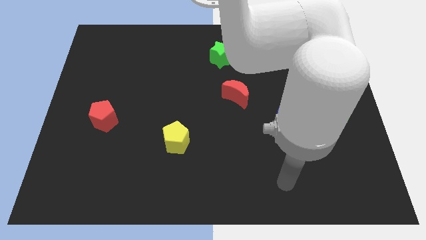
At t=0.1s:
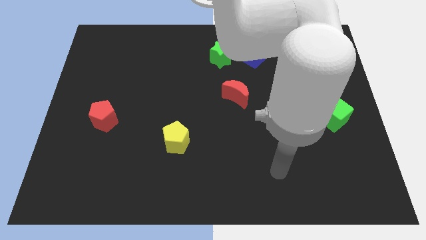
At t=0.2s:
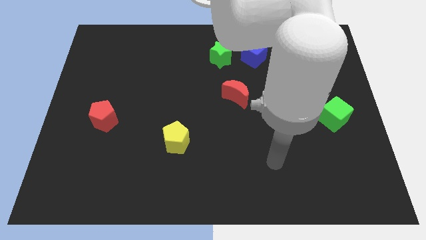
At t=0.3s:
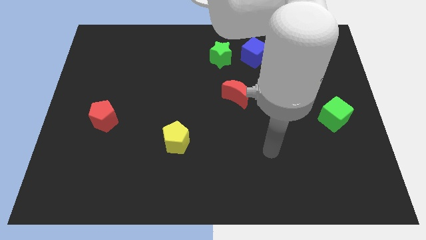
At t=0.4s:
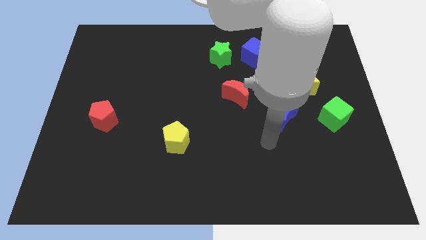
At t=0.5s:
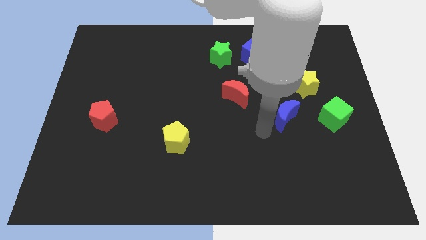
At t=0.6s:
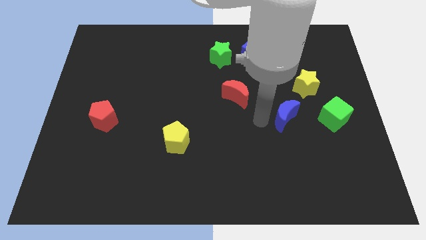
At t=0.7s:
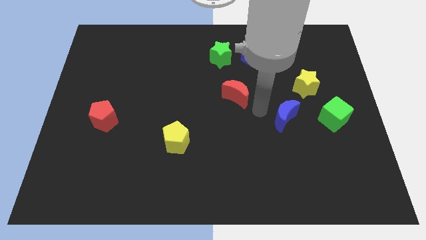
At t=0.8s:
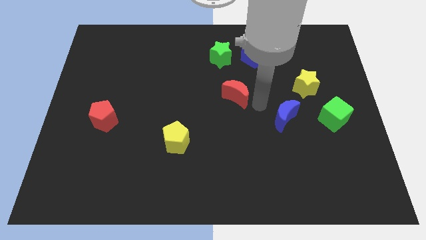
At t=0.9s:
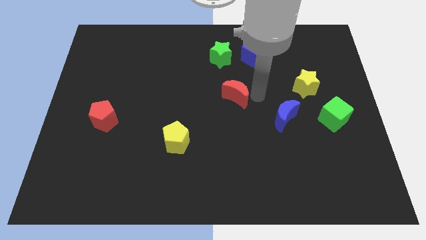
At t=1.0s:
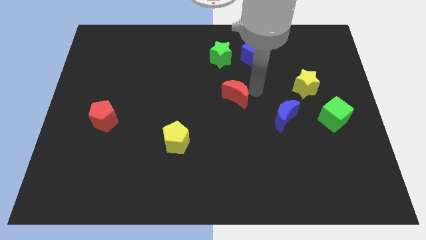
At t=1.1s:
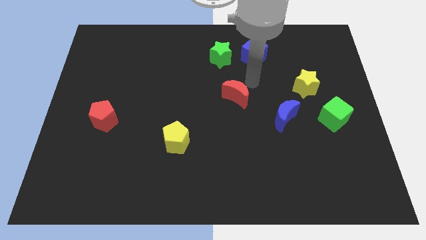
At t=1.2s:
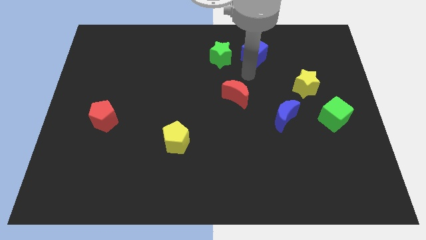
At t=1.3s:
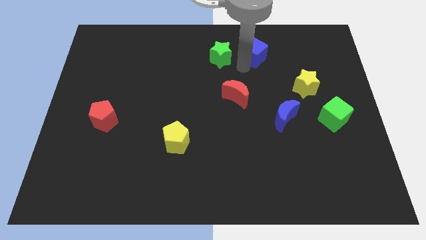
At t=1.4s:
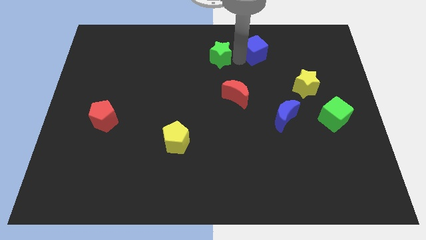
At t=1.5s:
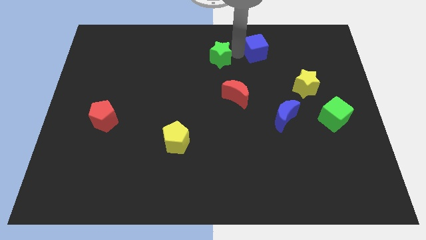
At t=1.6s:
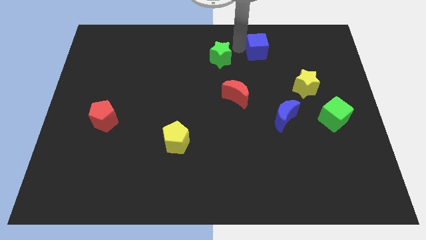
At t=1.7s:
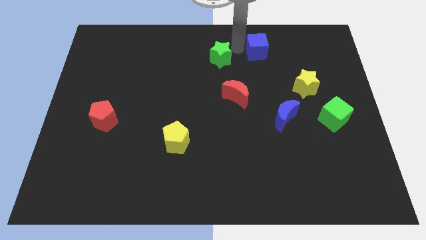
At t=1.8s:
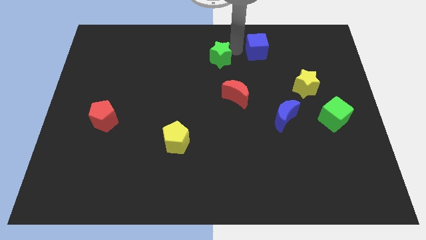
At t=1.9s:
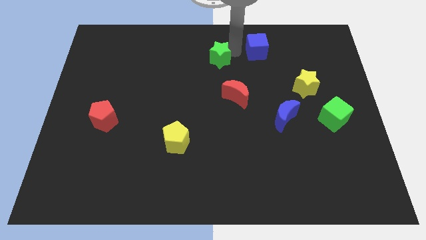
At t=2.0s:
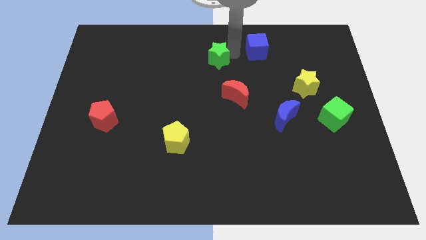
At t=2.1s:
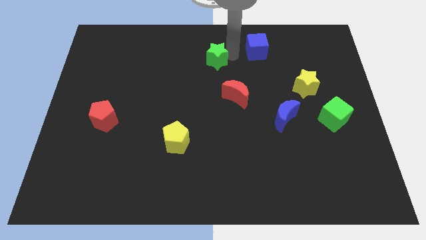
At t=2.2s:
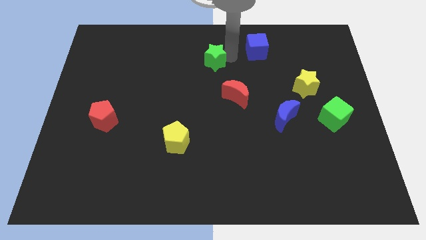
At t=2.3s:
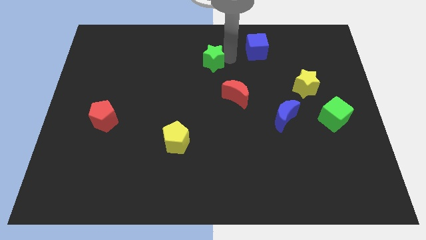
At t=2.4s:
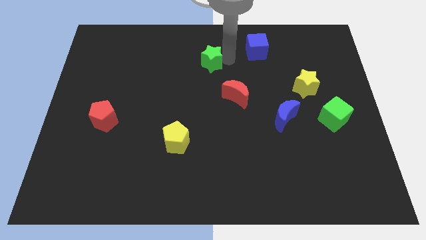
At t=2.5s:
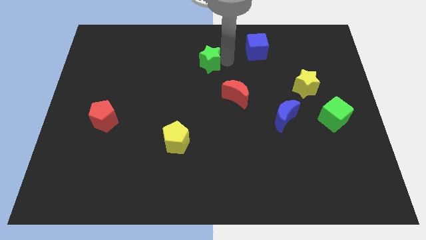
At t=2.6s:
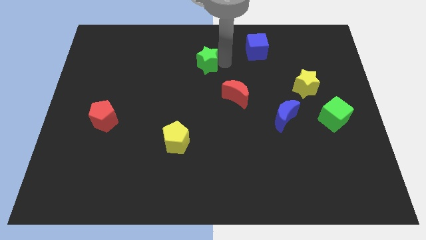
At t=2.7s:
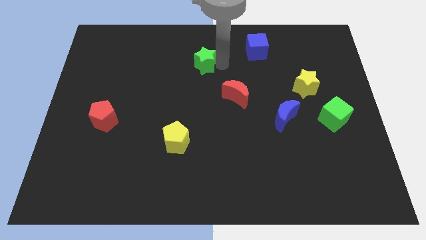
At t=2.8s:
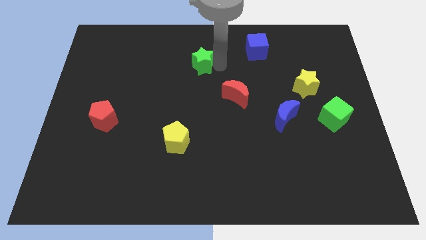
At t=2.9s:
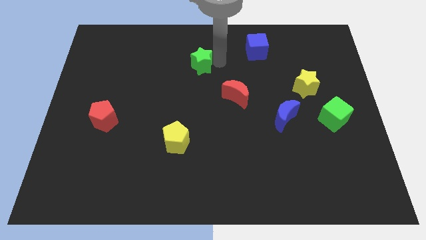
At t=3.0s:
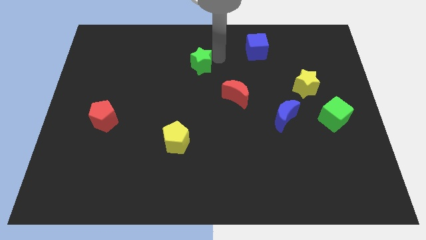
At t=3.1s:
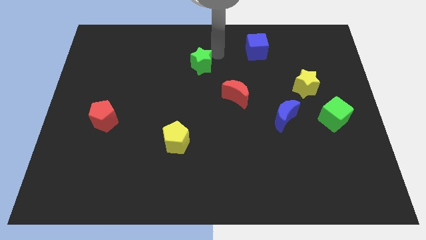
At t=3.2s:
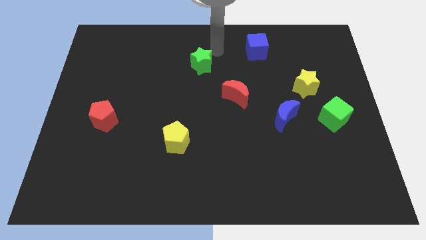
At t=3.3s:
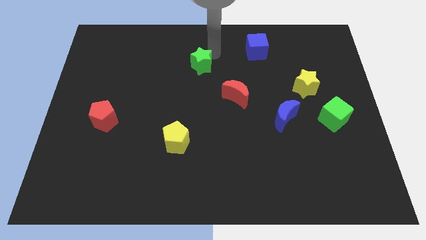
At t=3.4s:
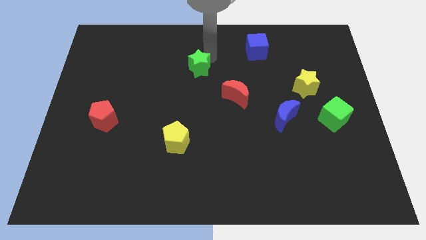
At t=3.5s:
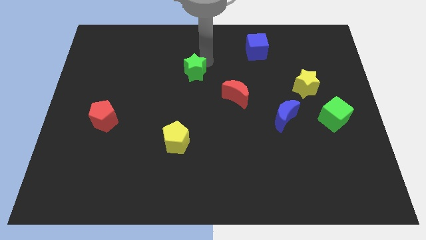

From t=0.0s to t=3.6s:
move the green star a bit downwards and left

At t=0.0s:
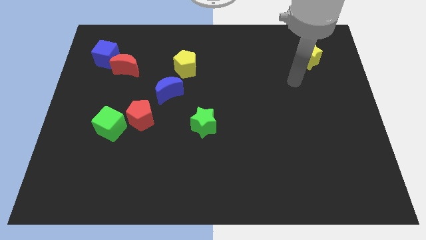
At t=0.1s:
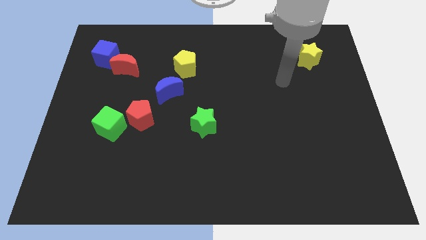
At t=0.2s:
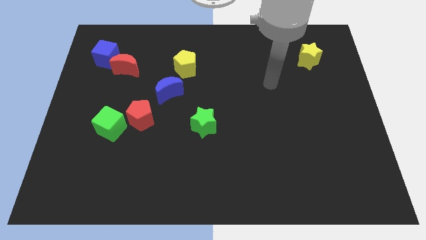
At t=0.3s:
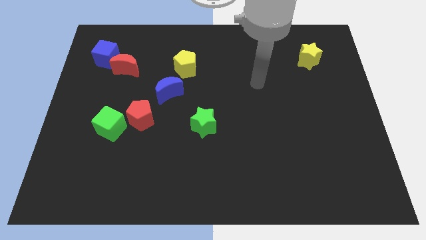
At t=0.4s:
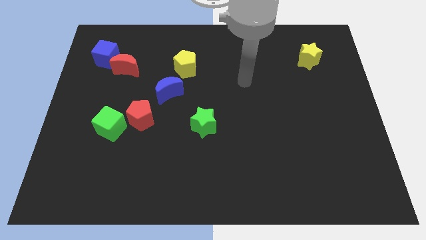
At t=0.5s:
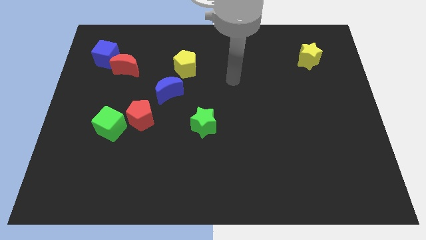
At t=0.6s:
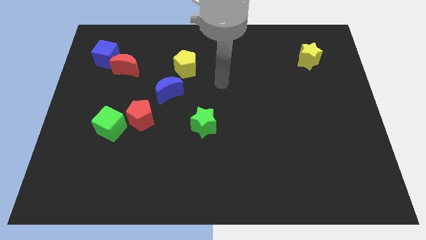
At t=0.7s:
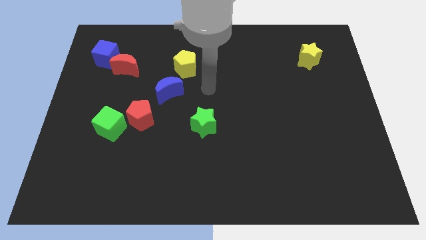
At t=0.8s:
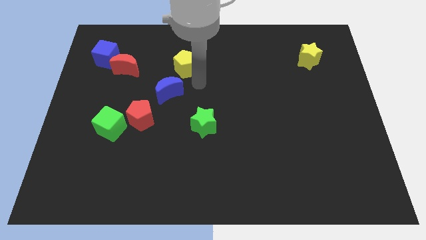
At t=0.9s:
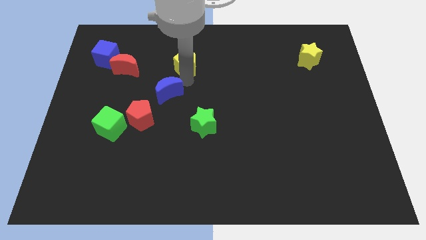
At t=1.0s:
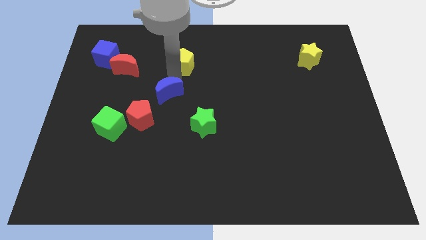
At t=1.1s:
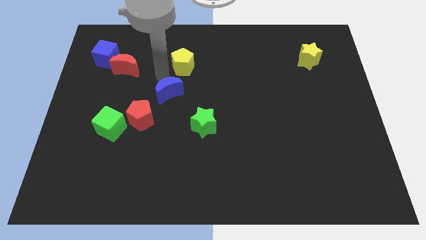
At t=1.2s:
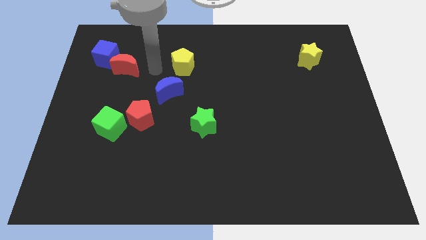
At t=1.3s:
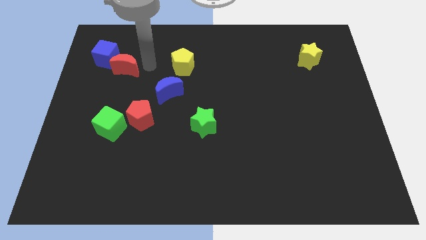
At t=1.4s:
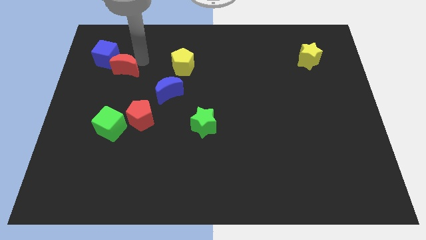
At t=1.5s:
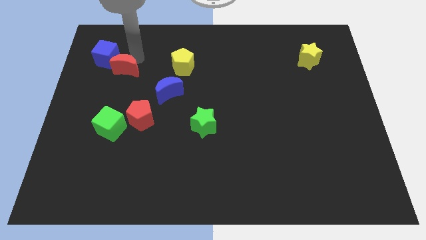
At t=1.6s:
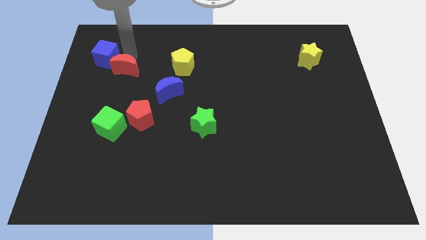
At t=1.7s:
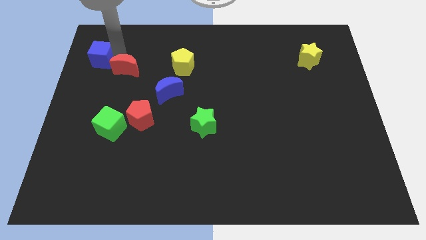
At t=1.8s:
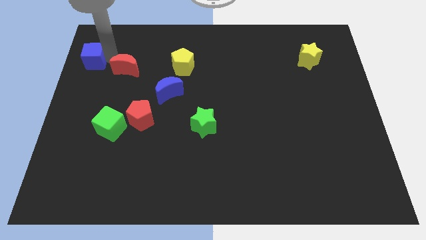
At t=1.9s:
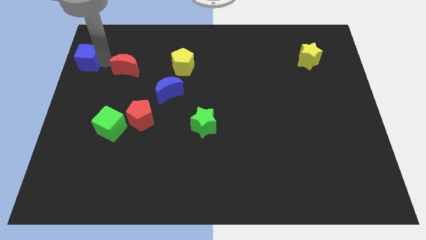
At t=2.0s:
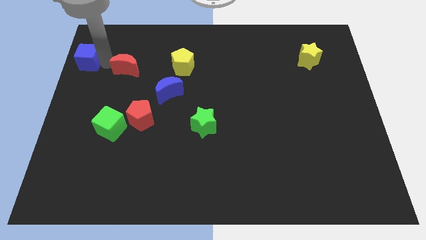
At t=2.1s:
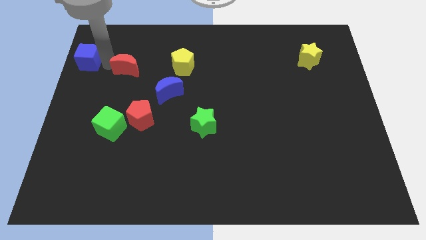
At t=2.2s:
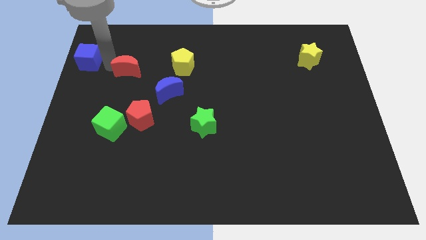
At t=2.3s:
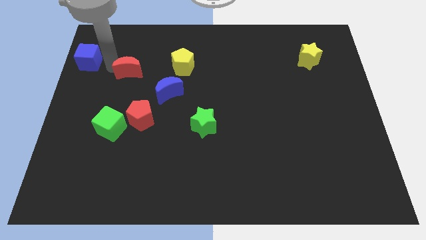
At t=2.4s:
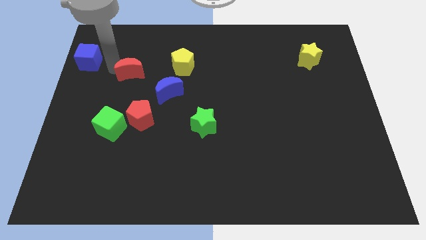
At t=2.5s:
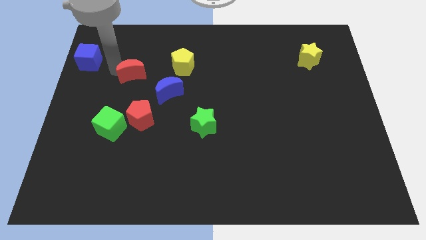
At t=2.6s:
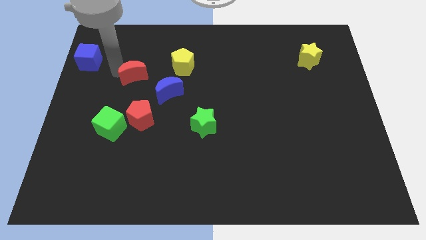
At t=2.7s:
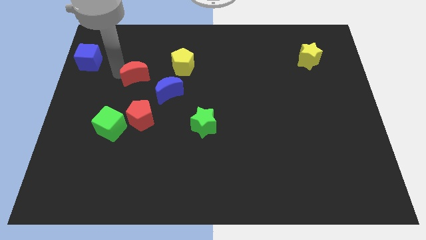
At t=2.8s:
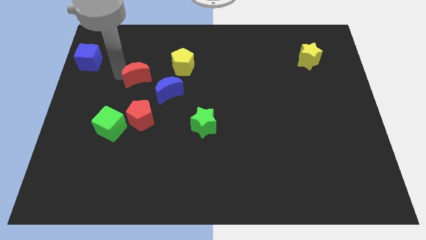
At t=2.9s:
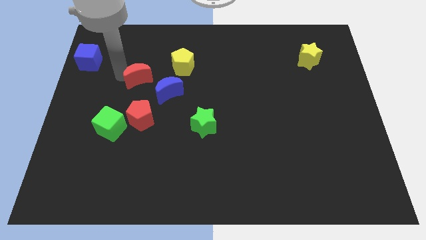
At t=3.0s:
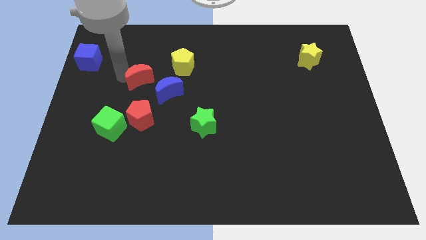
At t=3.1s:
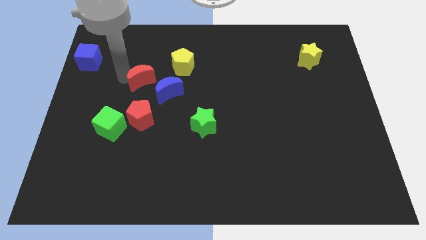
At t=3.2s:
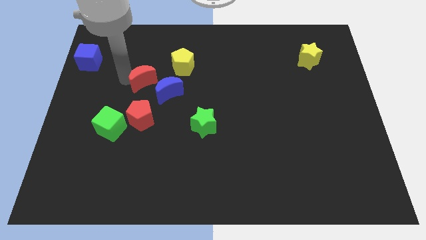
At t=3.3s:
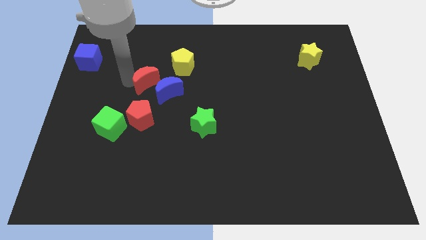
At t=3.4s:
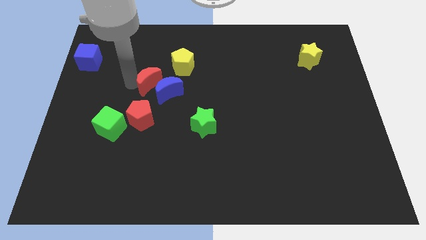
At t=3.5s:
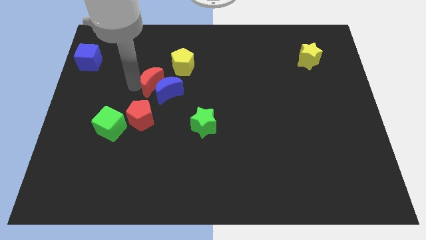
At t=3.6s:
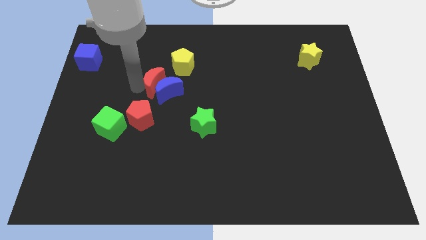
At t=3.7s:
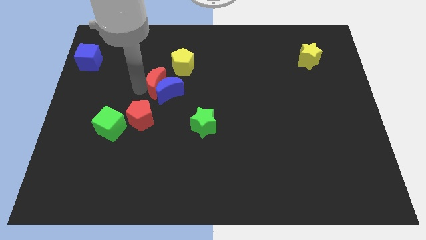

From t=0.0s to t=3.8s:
slide the red moon to the right a little

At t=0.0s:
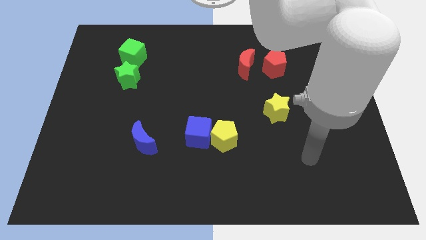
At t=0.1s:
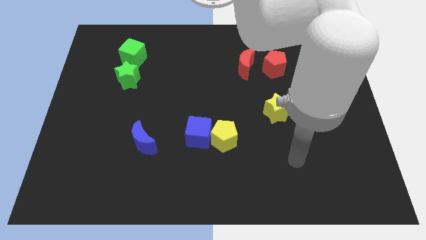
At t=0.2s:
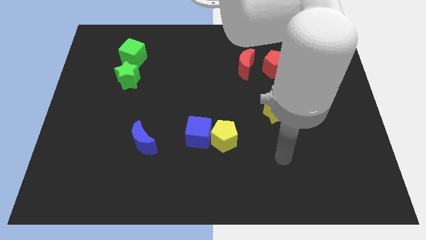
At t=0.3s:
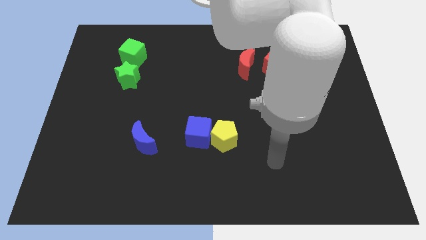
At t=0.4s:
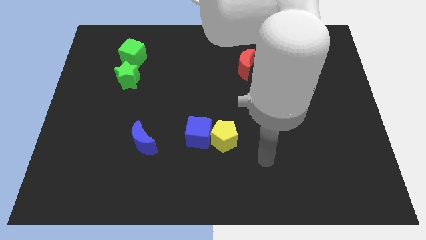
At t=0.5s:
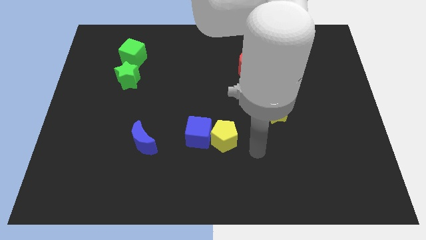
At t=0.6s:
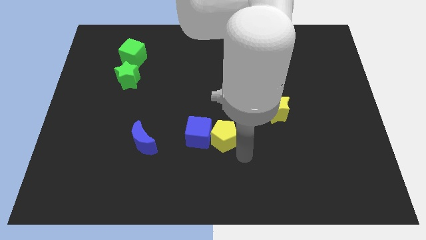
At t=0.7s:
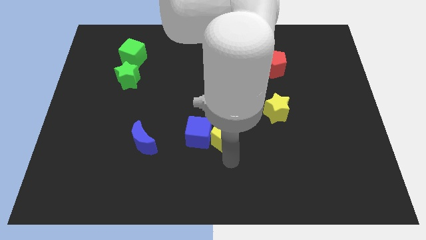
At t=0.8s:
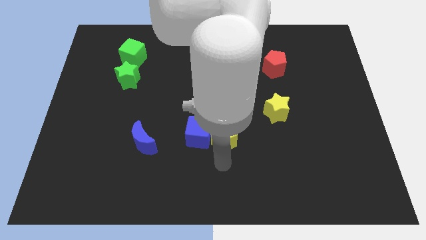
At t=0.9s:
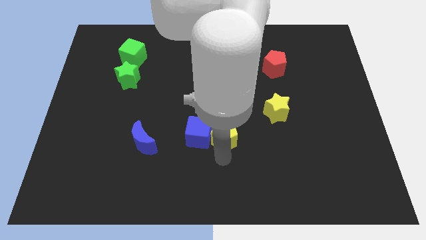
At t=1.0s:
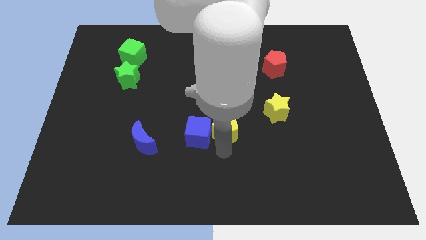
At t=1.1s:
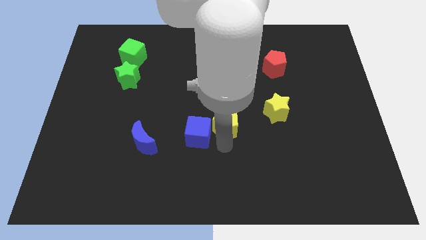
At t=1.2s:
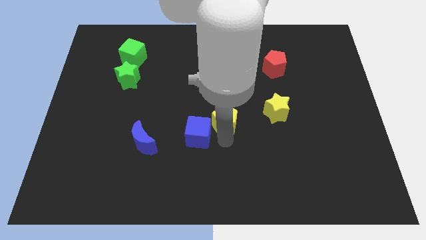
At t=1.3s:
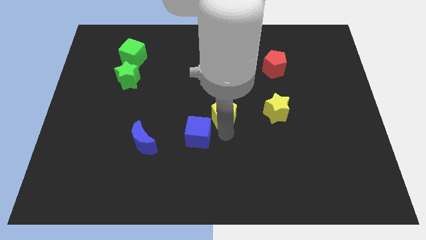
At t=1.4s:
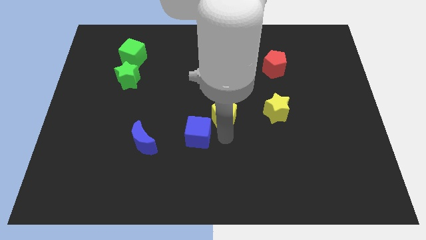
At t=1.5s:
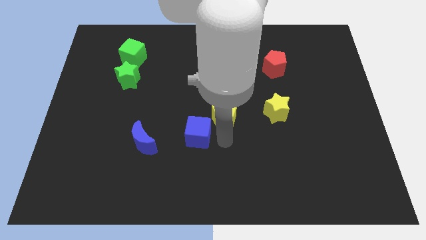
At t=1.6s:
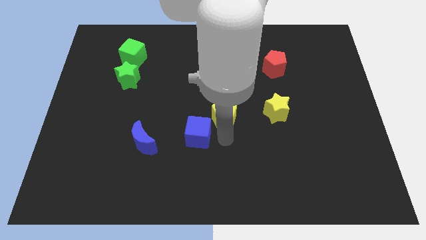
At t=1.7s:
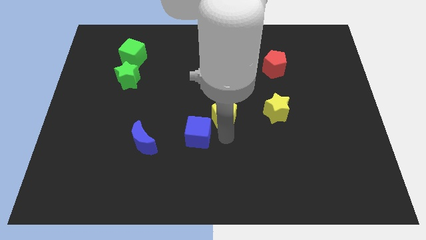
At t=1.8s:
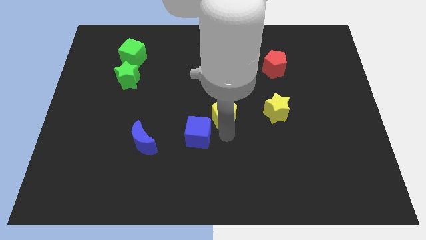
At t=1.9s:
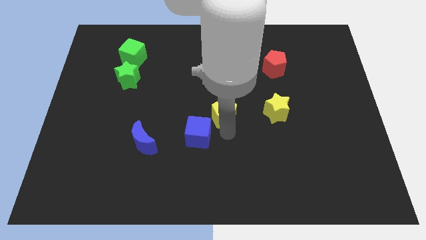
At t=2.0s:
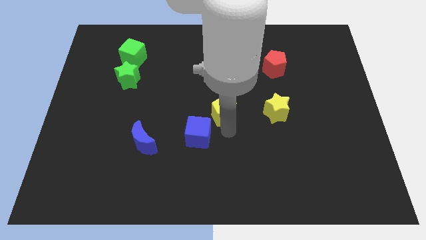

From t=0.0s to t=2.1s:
push the yellow pentagon up somewhat
